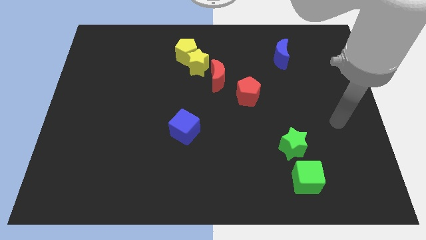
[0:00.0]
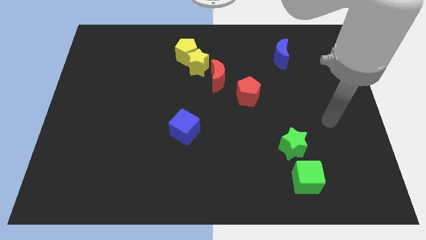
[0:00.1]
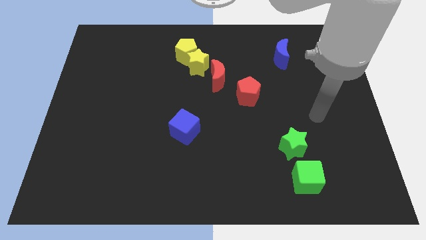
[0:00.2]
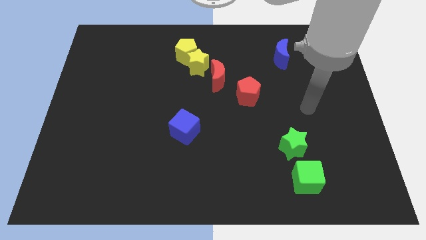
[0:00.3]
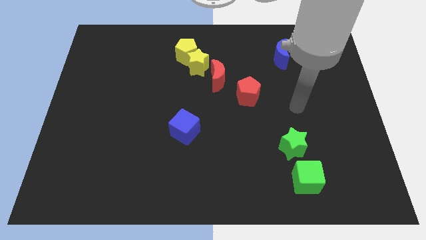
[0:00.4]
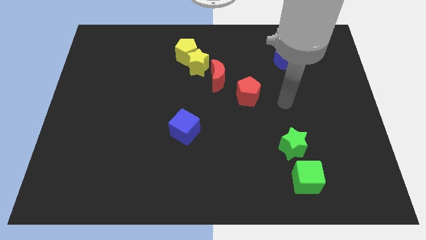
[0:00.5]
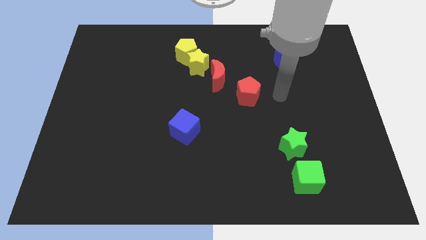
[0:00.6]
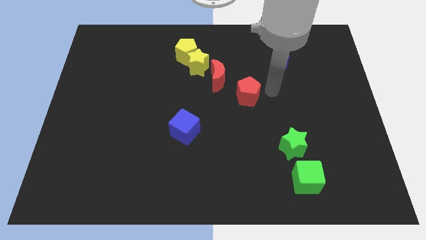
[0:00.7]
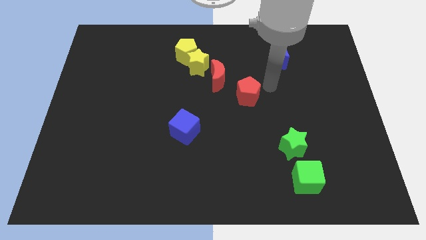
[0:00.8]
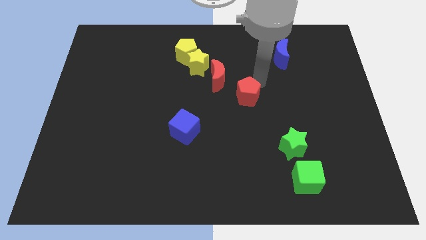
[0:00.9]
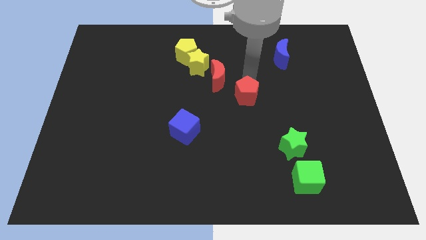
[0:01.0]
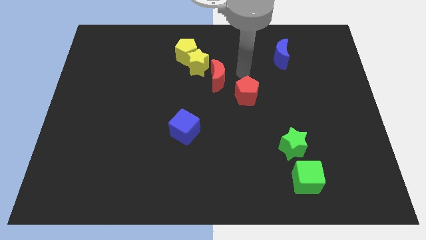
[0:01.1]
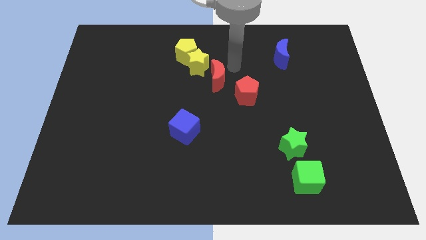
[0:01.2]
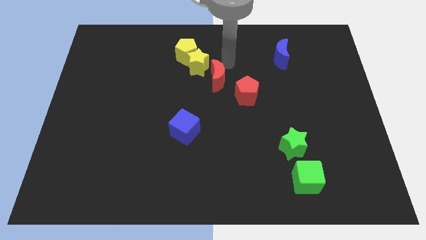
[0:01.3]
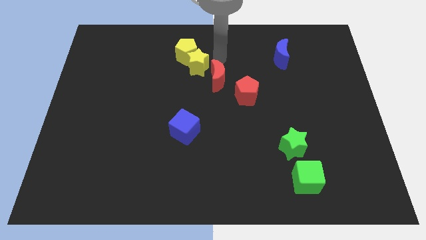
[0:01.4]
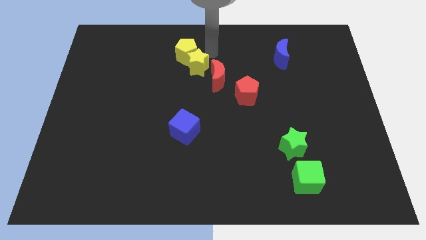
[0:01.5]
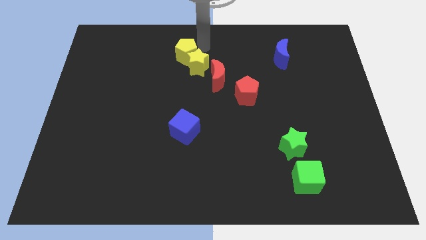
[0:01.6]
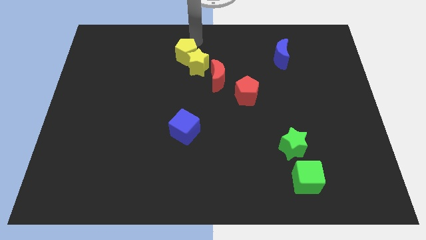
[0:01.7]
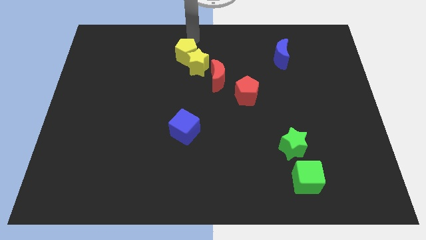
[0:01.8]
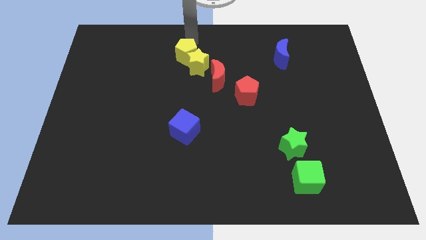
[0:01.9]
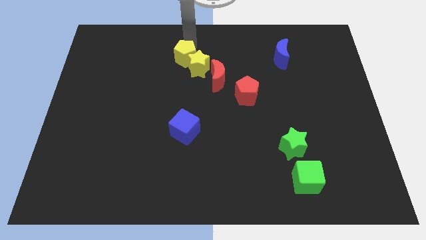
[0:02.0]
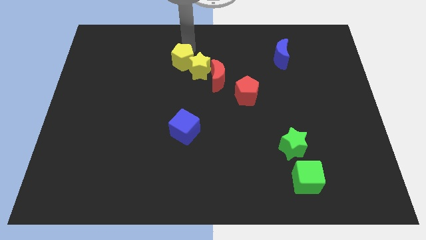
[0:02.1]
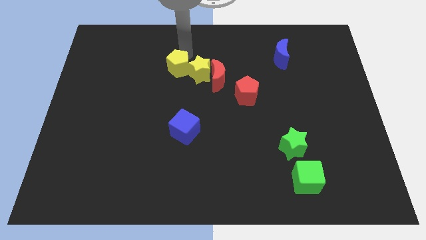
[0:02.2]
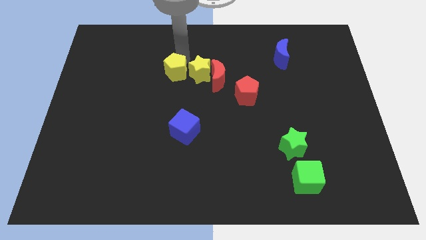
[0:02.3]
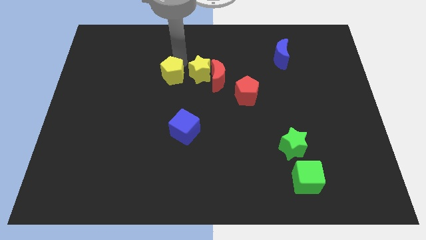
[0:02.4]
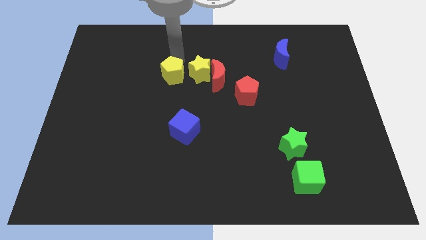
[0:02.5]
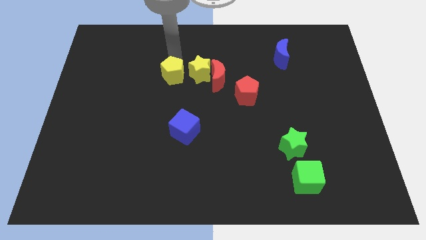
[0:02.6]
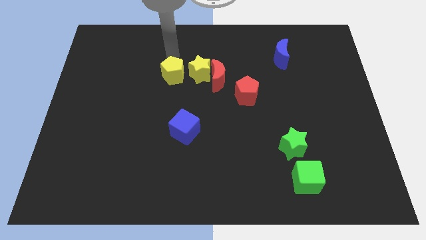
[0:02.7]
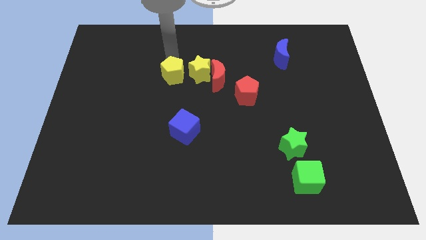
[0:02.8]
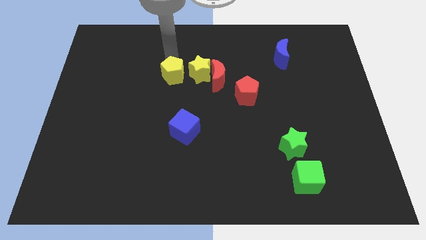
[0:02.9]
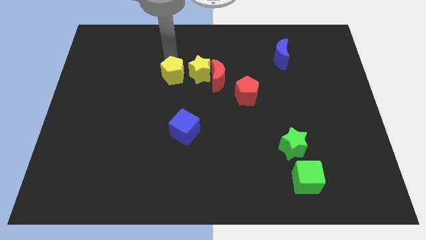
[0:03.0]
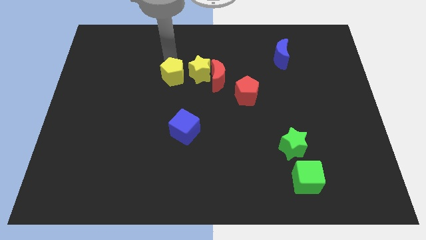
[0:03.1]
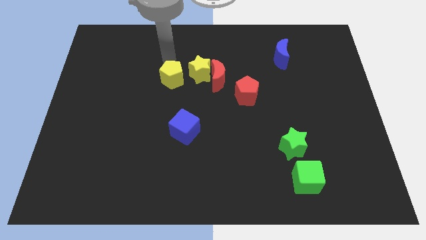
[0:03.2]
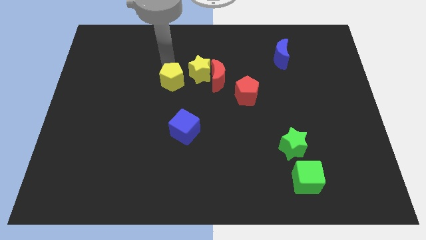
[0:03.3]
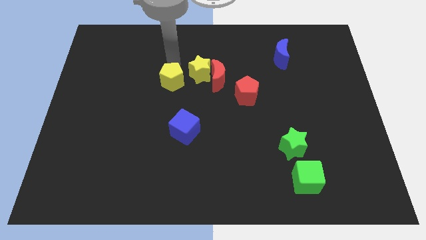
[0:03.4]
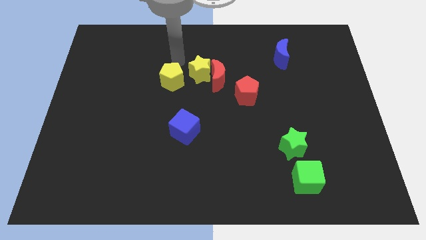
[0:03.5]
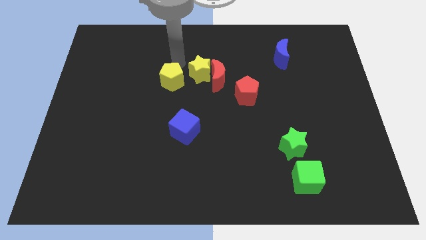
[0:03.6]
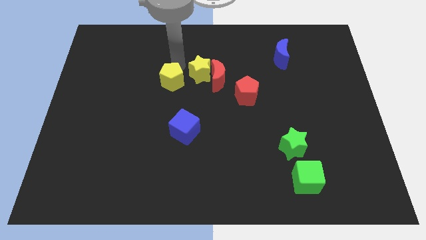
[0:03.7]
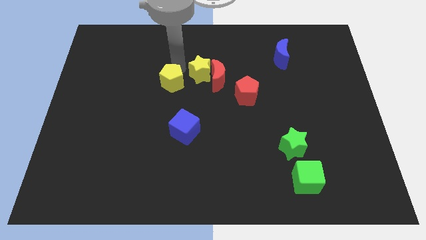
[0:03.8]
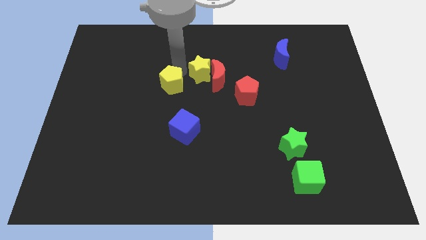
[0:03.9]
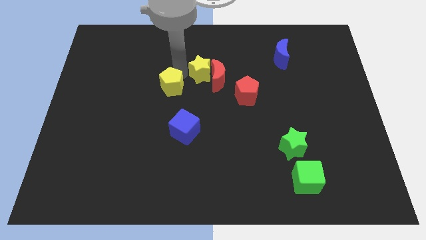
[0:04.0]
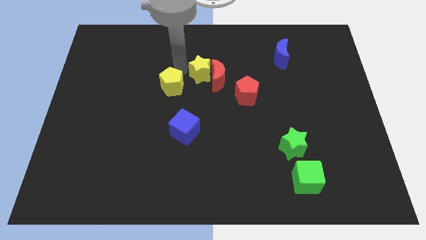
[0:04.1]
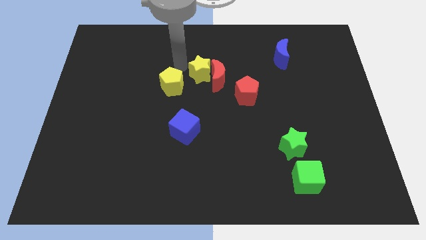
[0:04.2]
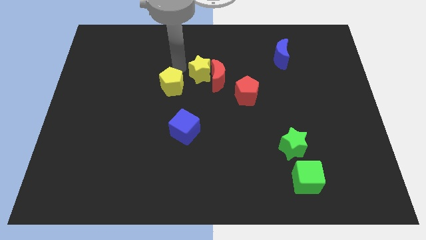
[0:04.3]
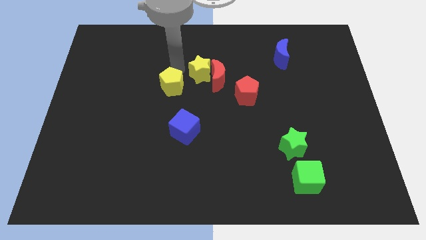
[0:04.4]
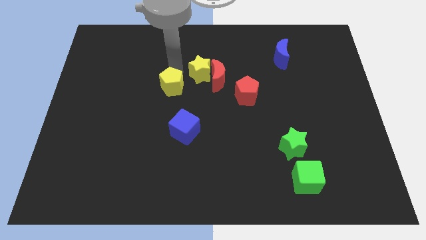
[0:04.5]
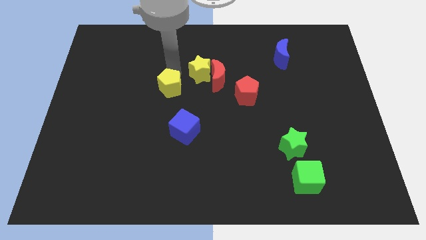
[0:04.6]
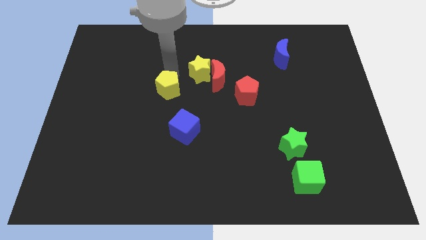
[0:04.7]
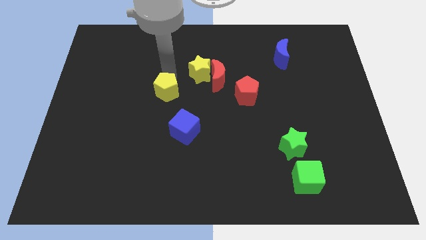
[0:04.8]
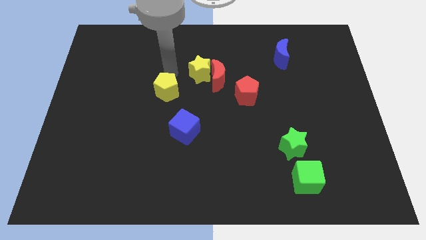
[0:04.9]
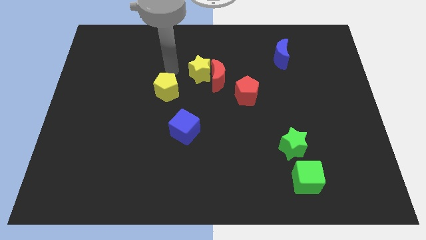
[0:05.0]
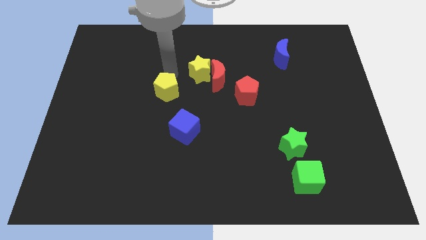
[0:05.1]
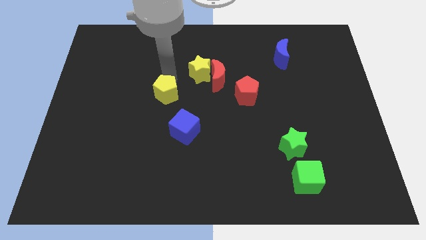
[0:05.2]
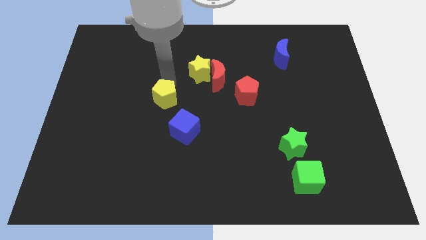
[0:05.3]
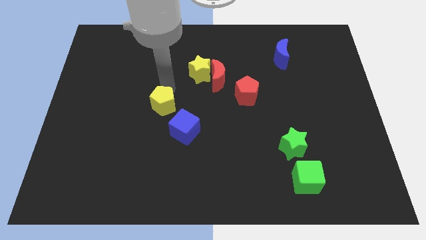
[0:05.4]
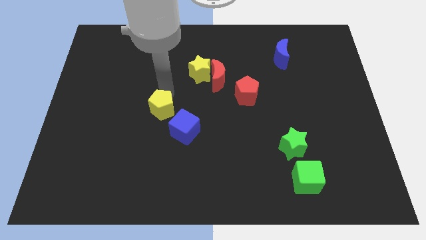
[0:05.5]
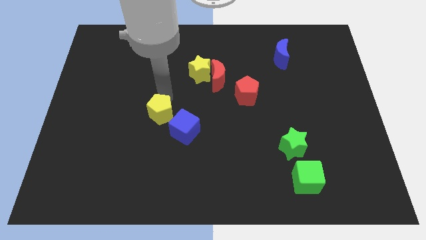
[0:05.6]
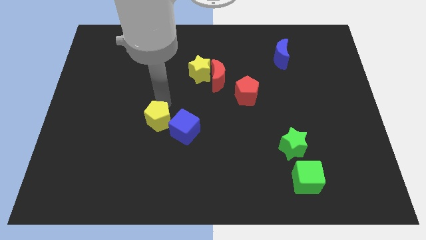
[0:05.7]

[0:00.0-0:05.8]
slide the yellow pentagon down

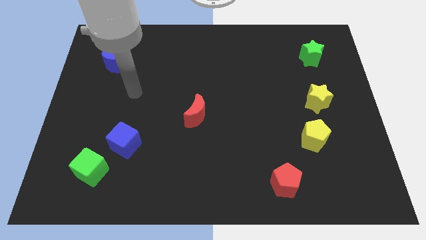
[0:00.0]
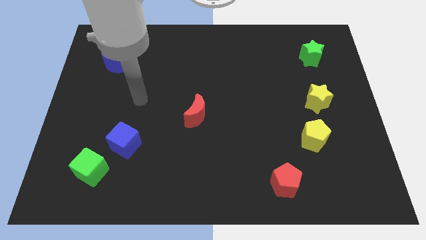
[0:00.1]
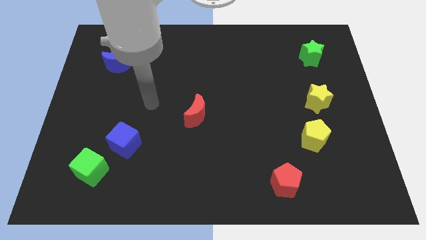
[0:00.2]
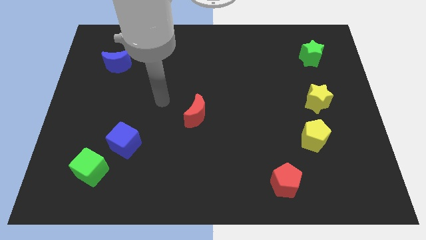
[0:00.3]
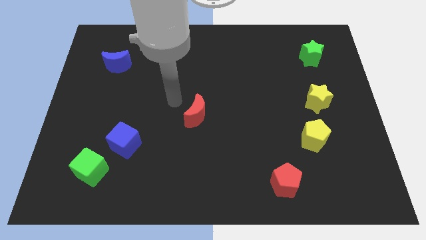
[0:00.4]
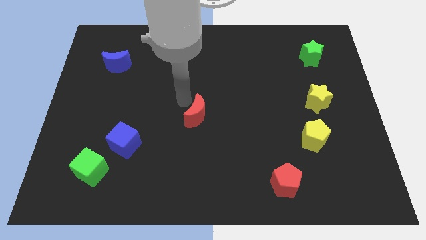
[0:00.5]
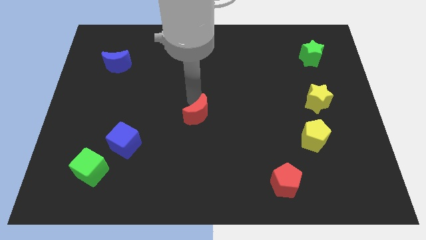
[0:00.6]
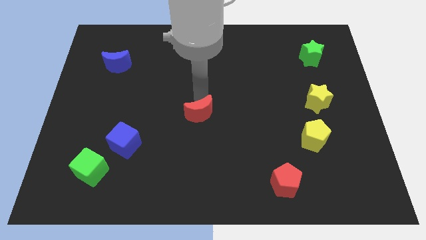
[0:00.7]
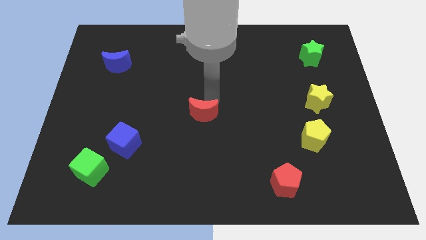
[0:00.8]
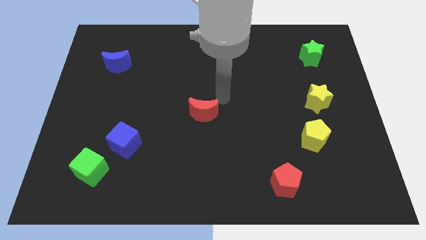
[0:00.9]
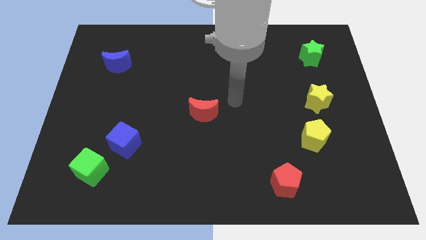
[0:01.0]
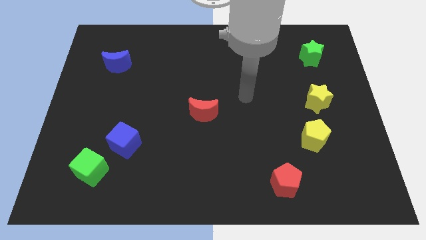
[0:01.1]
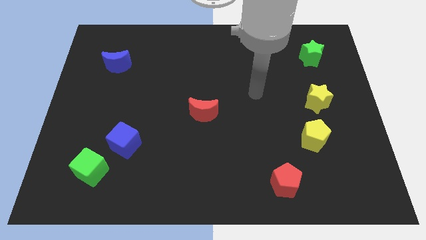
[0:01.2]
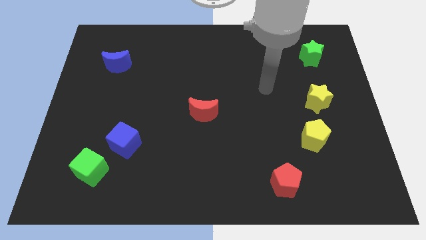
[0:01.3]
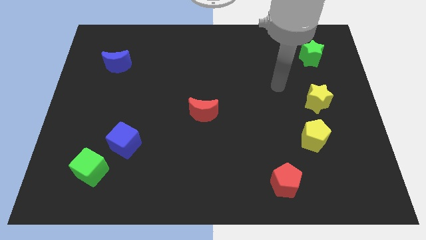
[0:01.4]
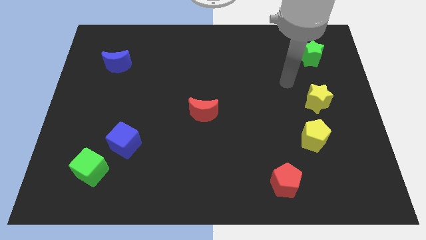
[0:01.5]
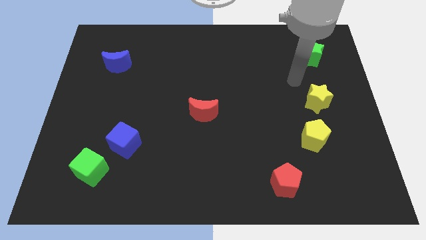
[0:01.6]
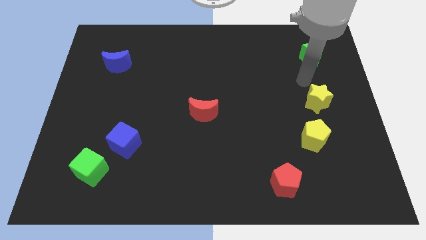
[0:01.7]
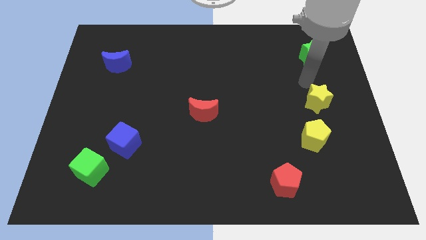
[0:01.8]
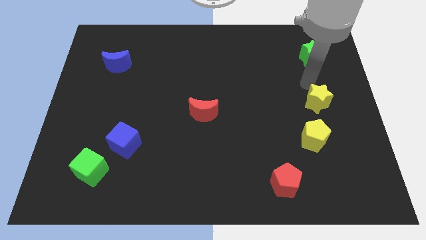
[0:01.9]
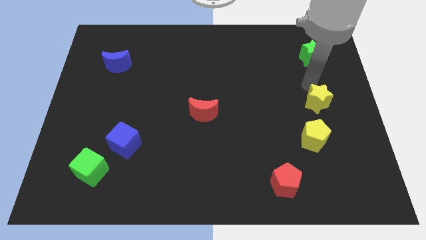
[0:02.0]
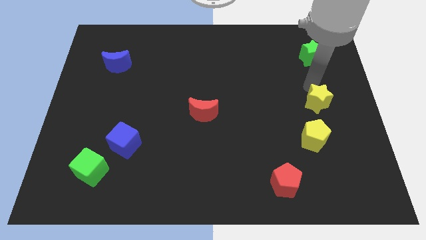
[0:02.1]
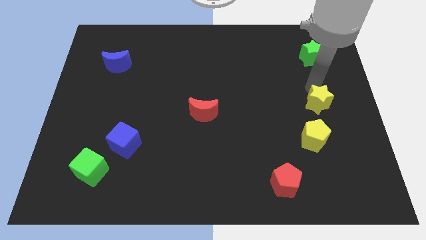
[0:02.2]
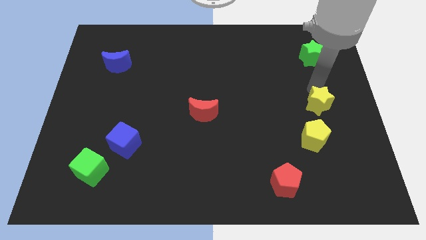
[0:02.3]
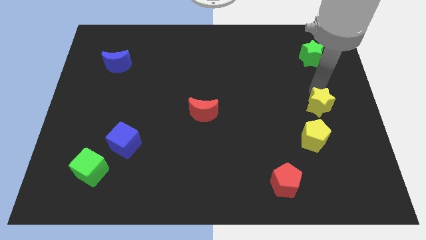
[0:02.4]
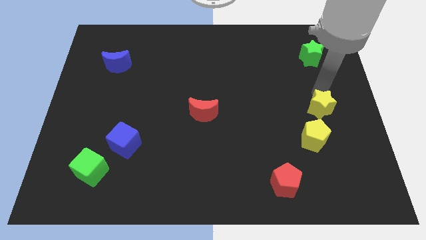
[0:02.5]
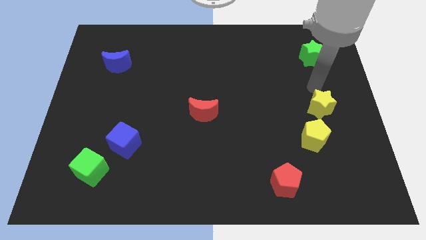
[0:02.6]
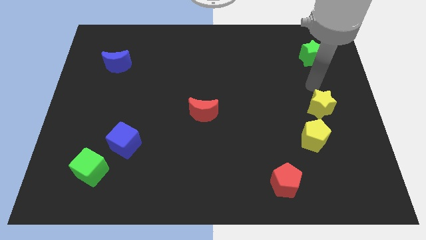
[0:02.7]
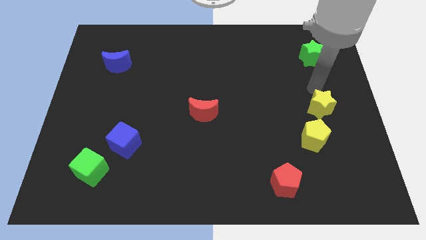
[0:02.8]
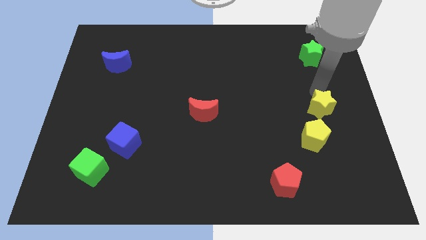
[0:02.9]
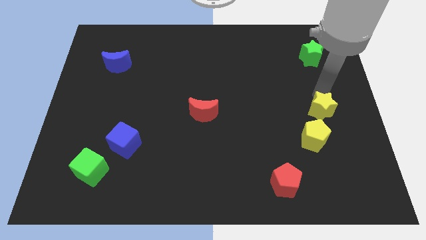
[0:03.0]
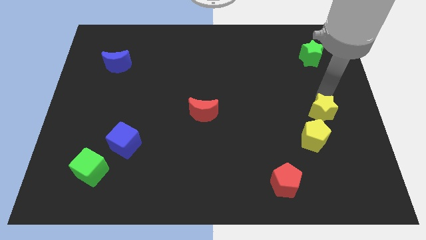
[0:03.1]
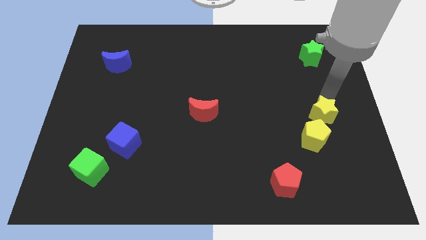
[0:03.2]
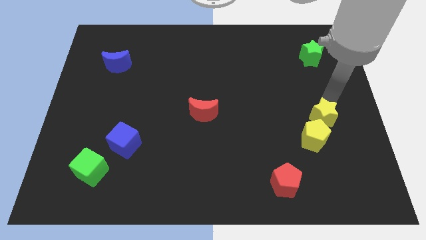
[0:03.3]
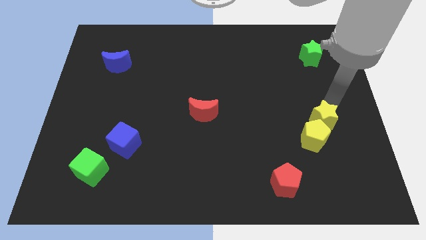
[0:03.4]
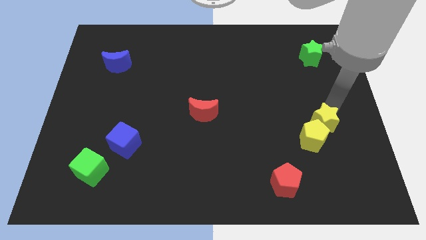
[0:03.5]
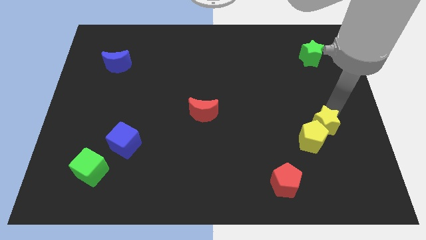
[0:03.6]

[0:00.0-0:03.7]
slightly push the yellow star downwards
